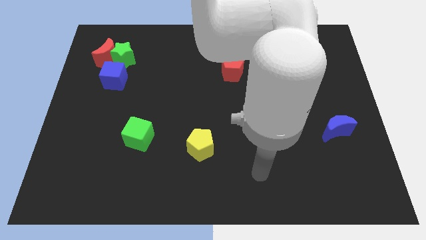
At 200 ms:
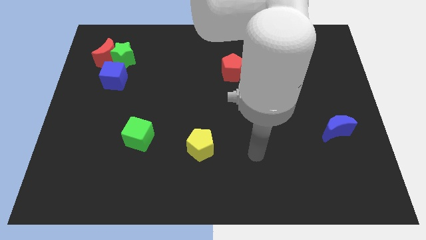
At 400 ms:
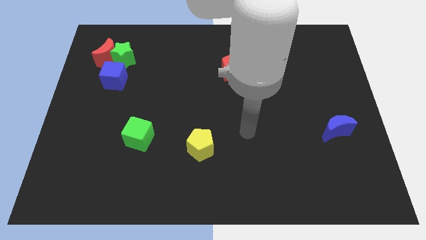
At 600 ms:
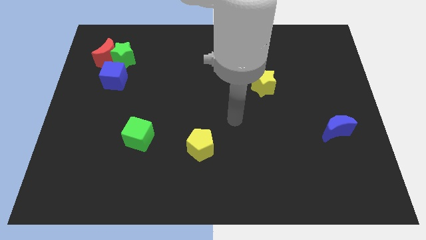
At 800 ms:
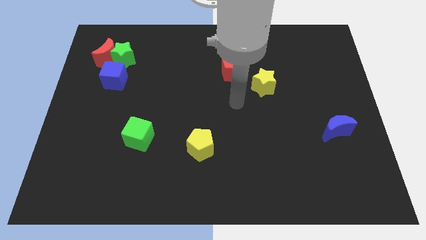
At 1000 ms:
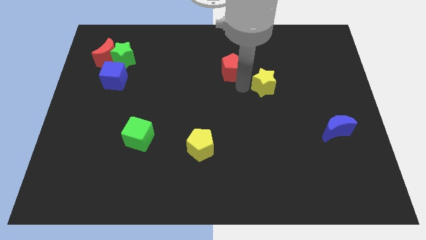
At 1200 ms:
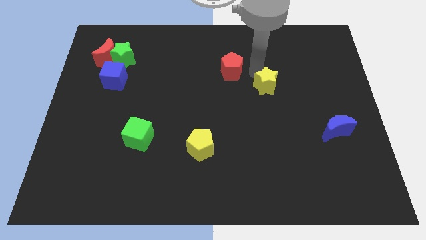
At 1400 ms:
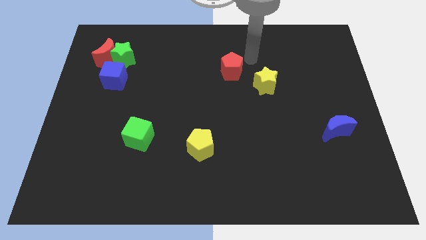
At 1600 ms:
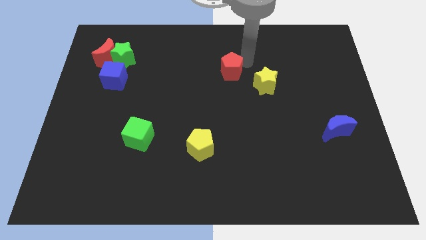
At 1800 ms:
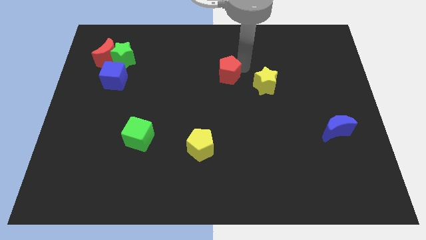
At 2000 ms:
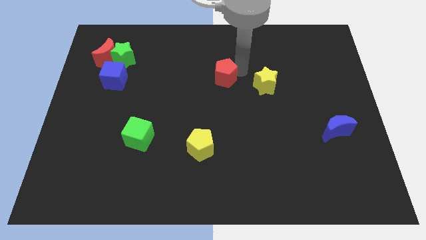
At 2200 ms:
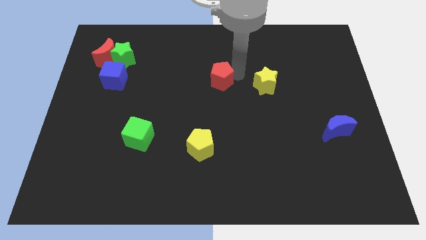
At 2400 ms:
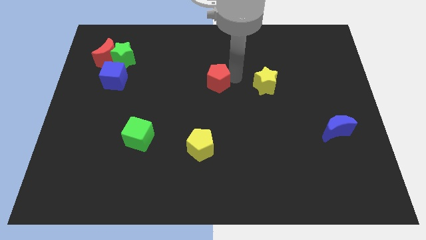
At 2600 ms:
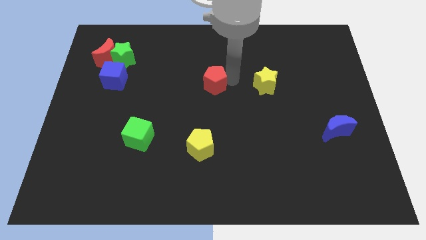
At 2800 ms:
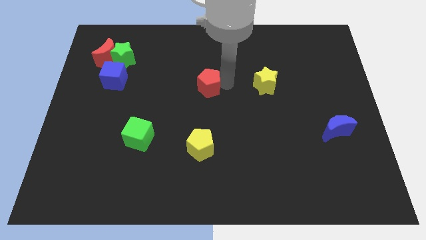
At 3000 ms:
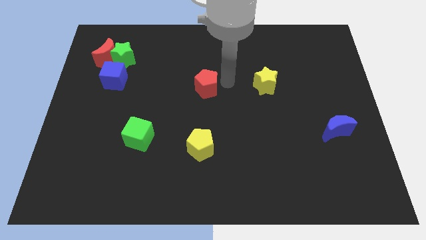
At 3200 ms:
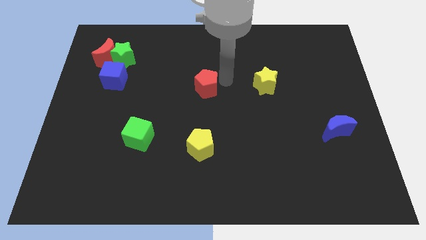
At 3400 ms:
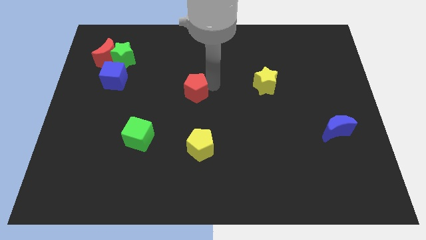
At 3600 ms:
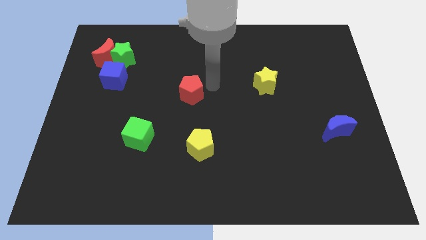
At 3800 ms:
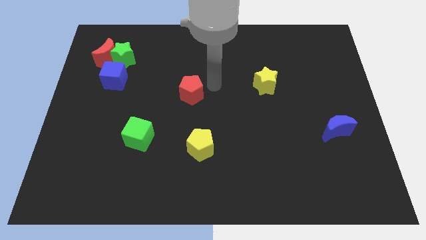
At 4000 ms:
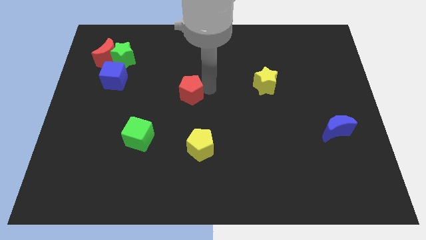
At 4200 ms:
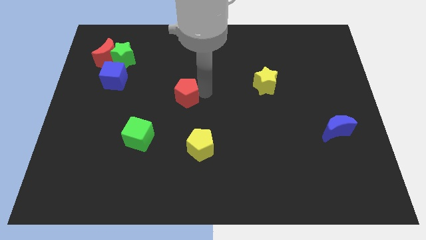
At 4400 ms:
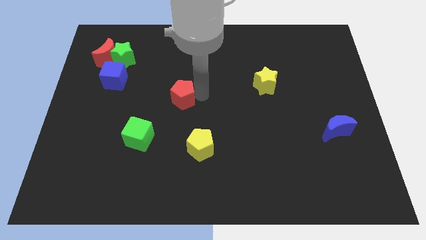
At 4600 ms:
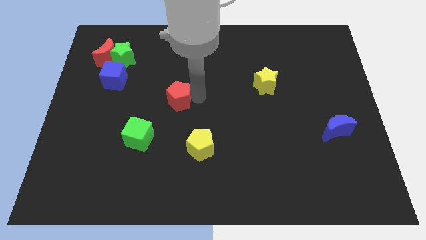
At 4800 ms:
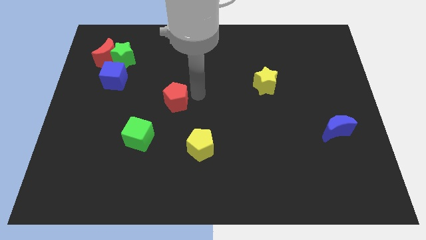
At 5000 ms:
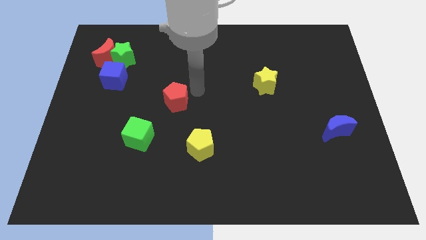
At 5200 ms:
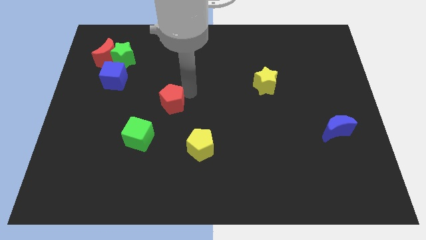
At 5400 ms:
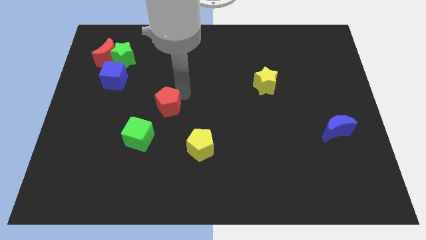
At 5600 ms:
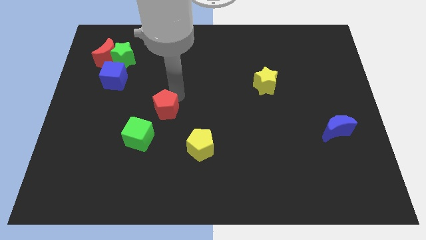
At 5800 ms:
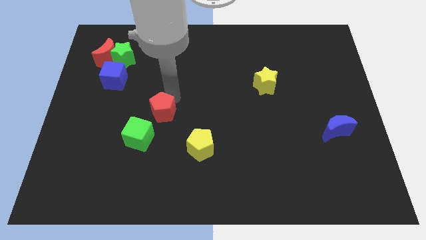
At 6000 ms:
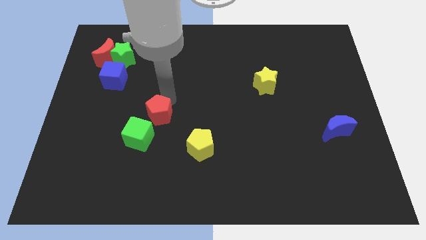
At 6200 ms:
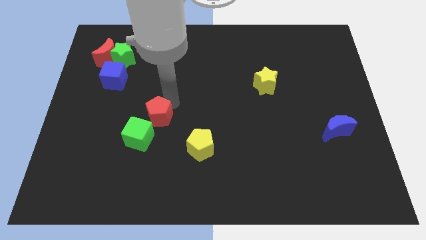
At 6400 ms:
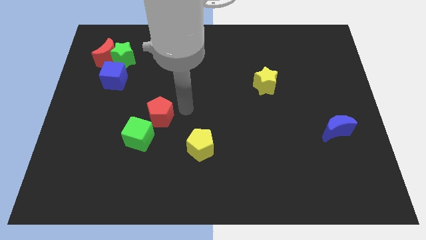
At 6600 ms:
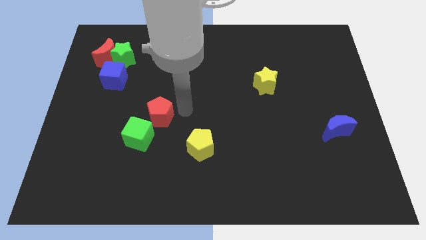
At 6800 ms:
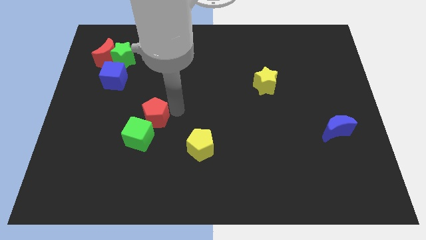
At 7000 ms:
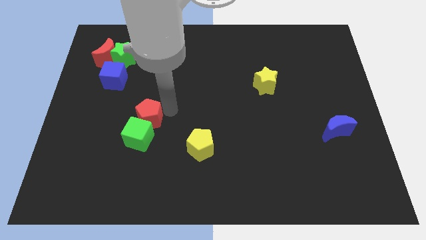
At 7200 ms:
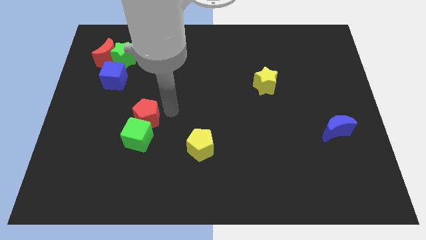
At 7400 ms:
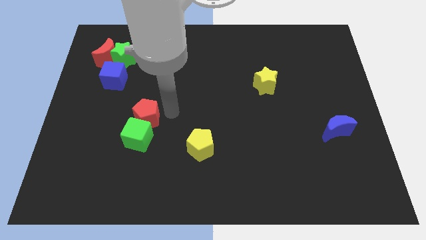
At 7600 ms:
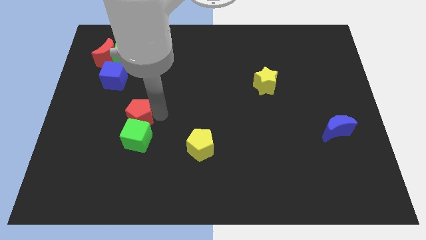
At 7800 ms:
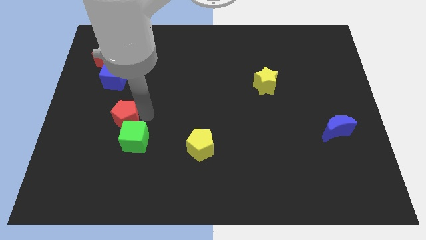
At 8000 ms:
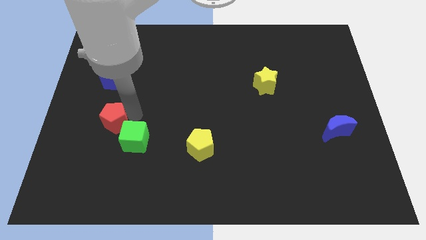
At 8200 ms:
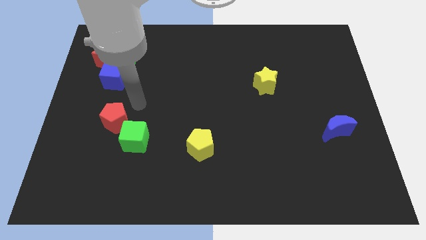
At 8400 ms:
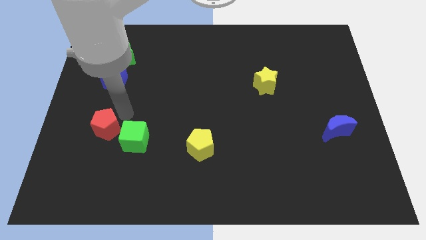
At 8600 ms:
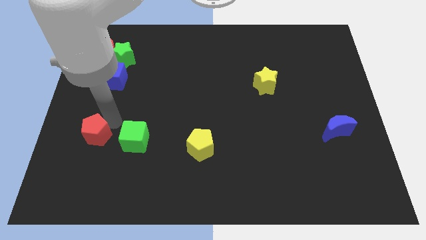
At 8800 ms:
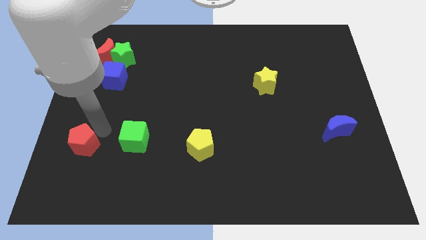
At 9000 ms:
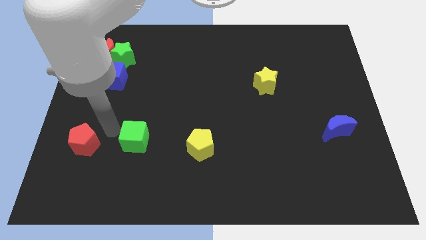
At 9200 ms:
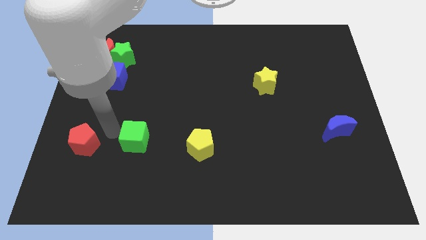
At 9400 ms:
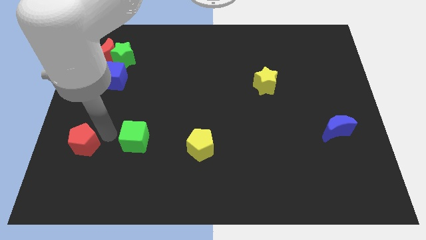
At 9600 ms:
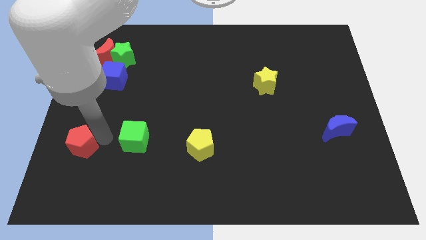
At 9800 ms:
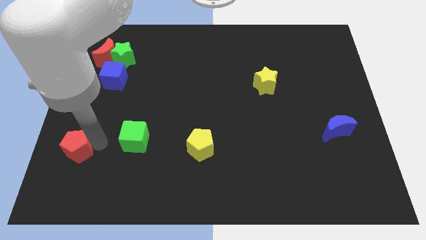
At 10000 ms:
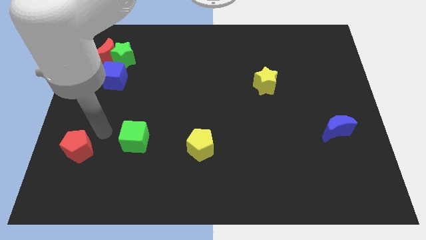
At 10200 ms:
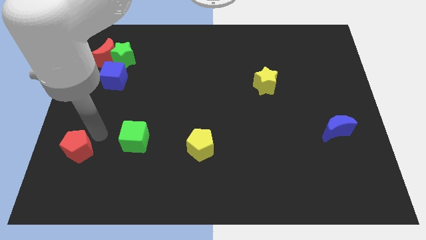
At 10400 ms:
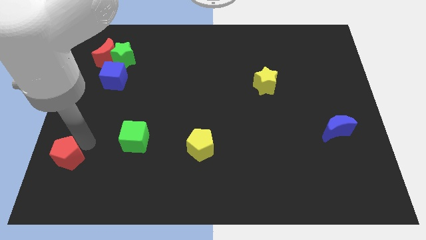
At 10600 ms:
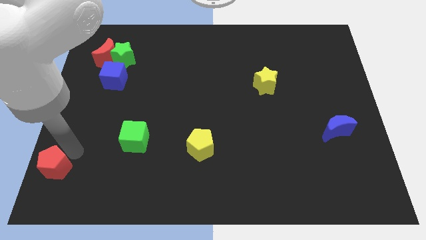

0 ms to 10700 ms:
slide the red pentagon to the bottom left of the board

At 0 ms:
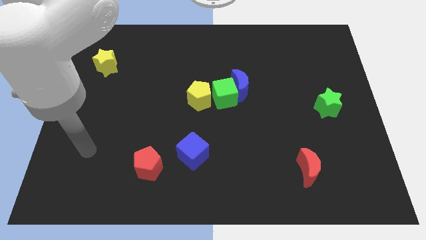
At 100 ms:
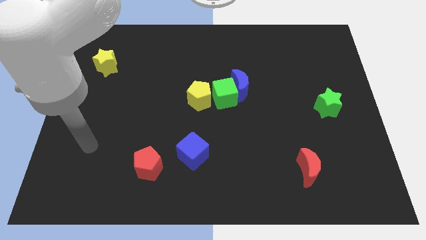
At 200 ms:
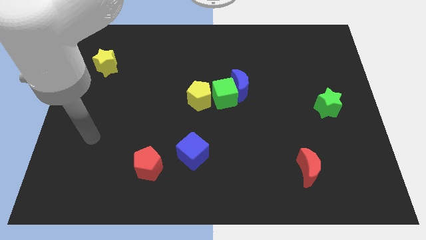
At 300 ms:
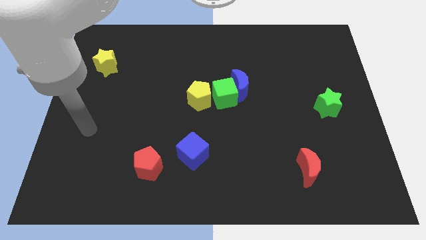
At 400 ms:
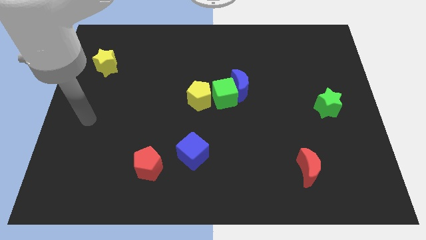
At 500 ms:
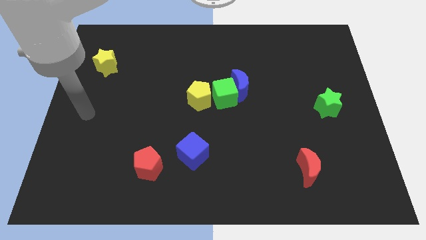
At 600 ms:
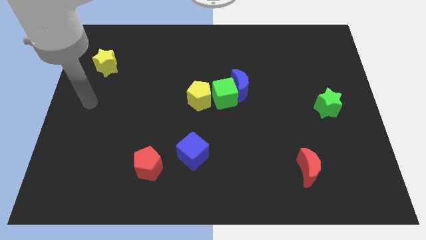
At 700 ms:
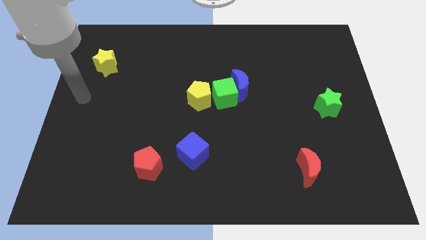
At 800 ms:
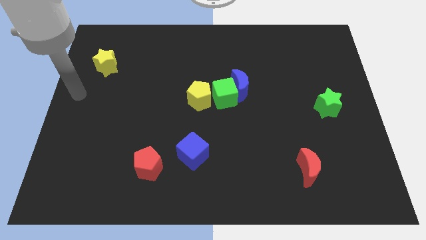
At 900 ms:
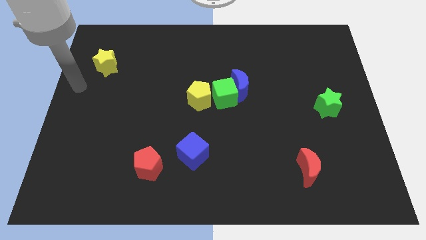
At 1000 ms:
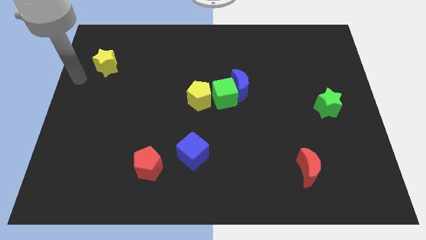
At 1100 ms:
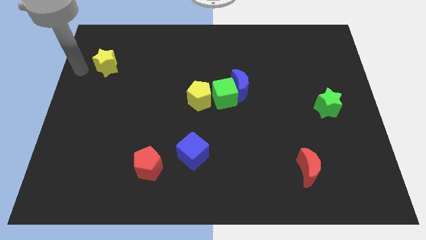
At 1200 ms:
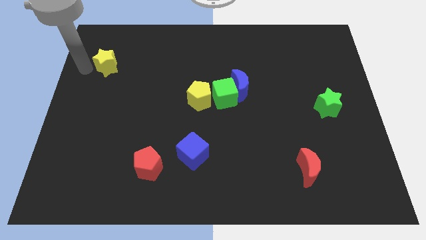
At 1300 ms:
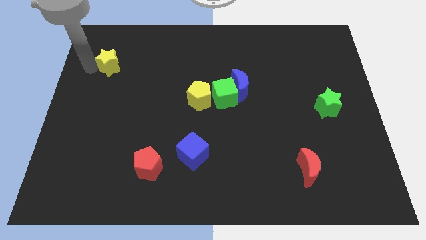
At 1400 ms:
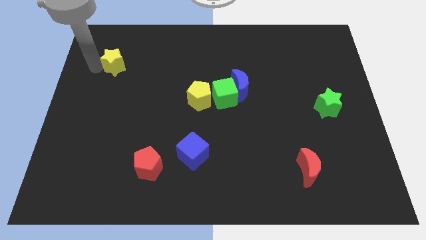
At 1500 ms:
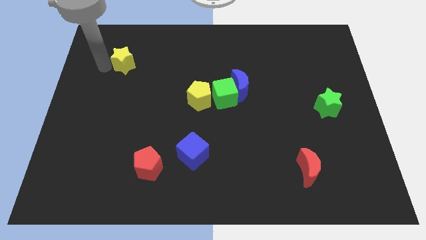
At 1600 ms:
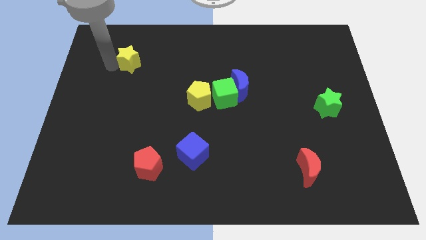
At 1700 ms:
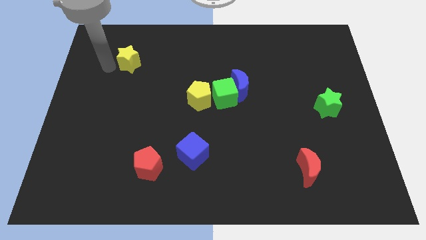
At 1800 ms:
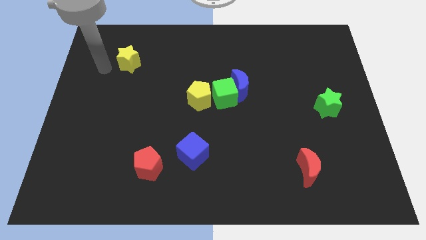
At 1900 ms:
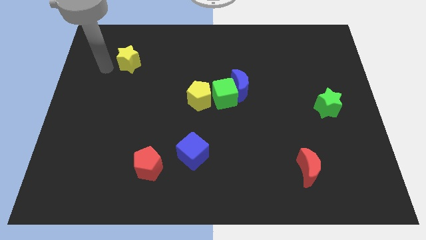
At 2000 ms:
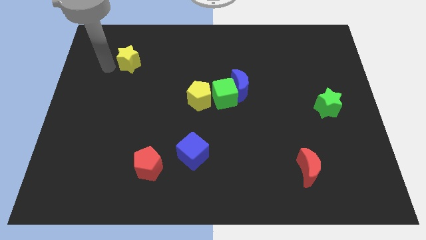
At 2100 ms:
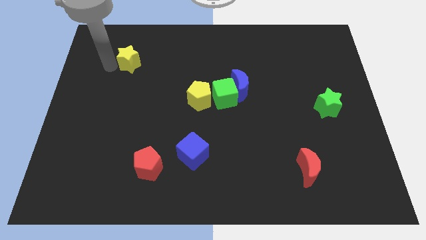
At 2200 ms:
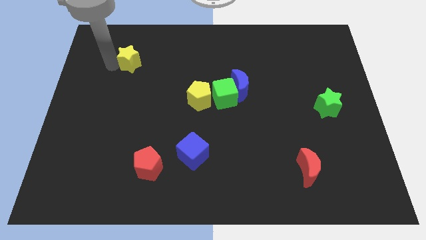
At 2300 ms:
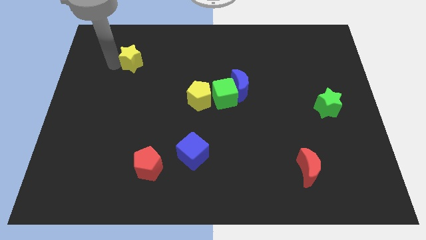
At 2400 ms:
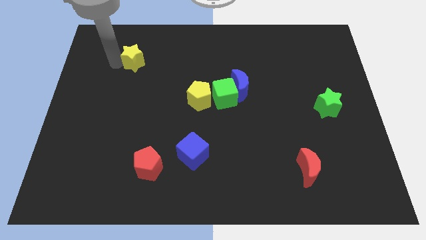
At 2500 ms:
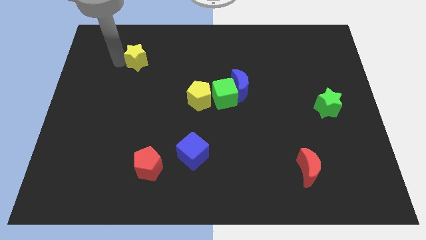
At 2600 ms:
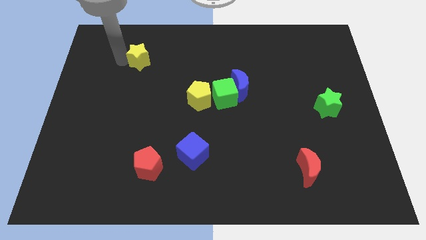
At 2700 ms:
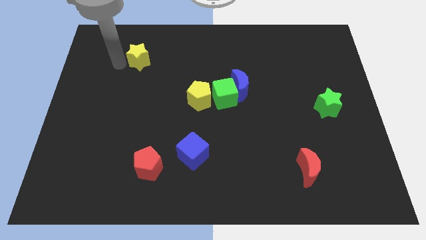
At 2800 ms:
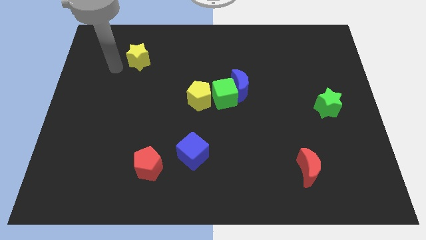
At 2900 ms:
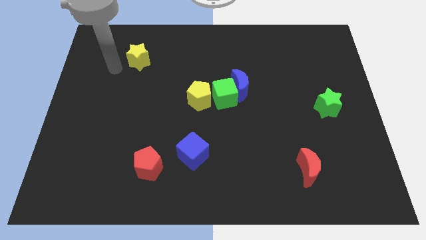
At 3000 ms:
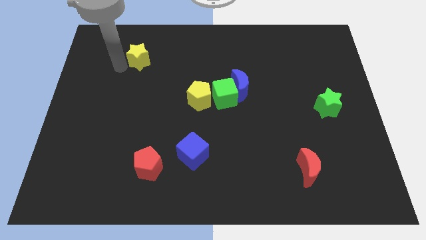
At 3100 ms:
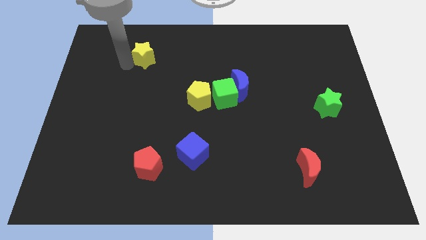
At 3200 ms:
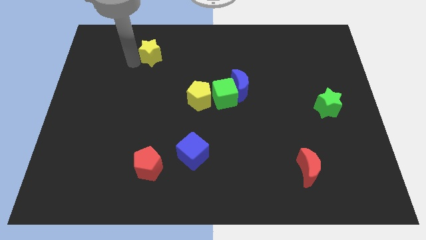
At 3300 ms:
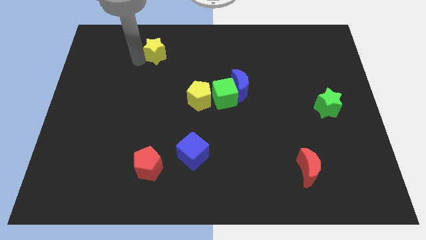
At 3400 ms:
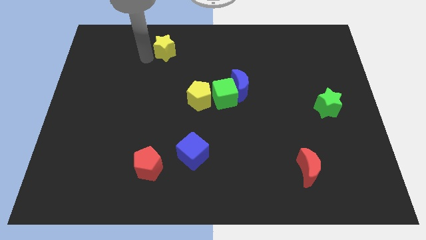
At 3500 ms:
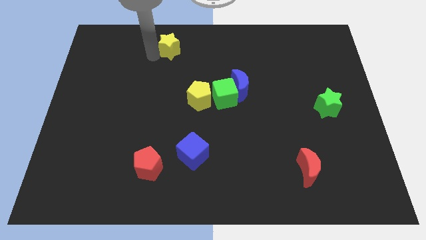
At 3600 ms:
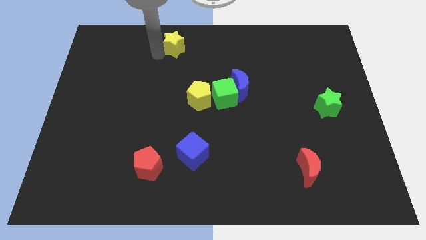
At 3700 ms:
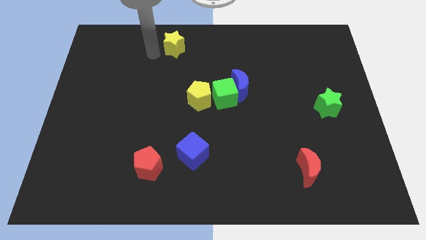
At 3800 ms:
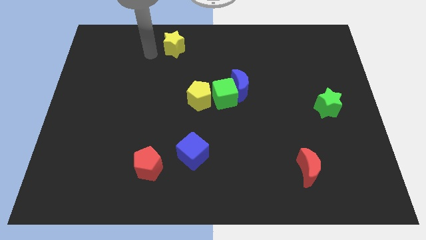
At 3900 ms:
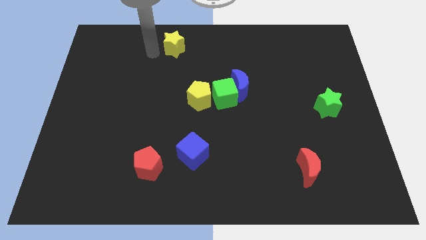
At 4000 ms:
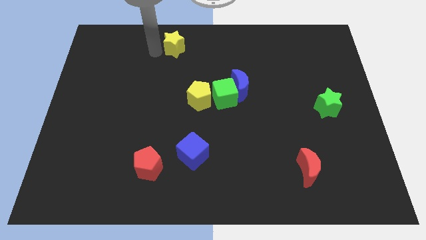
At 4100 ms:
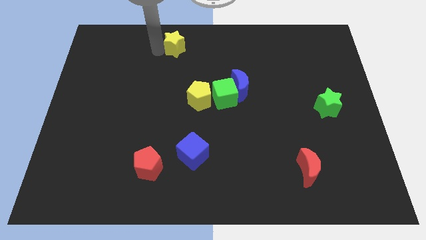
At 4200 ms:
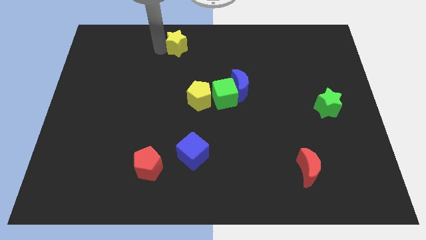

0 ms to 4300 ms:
move the yellow star to the top side
